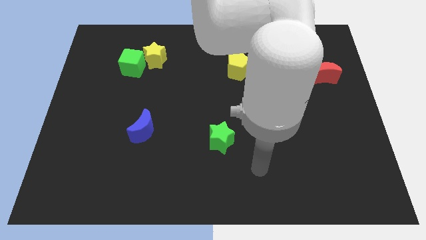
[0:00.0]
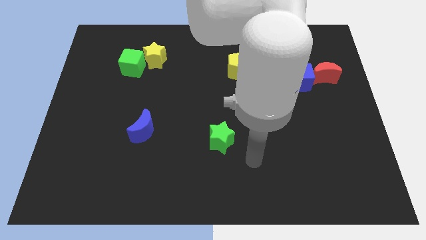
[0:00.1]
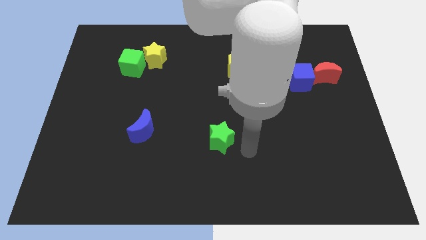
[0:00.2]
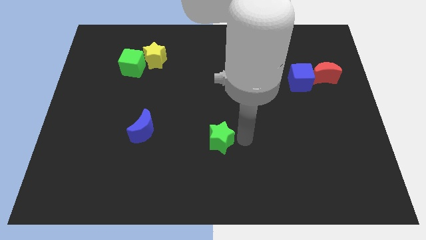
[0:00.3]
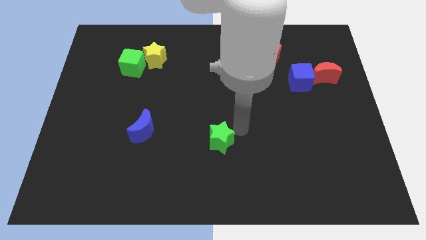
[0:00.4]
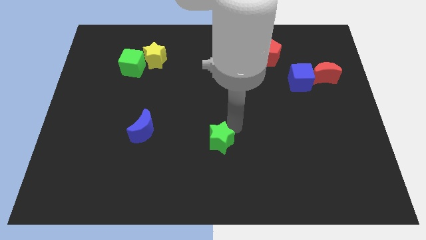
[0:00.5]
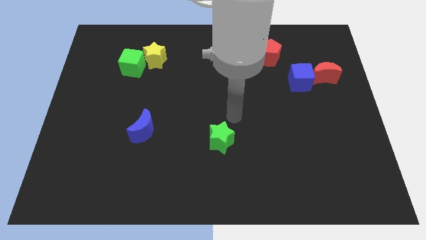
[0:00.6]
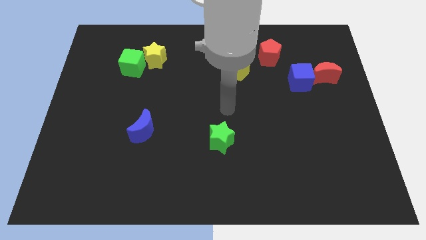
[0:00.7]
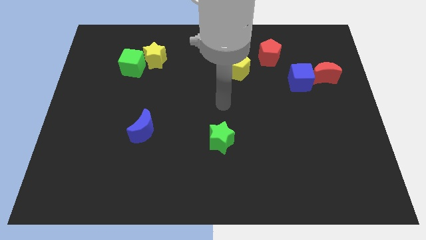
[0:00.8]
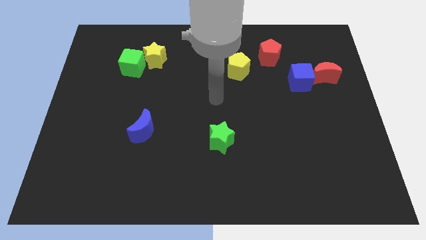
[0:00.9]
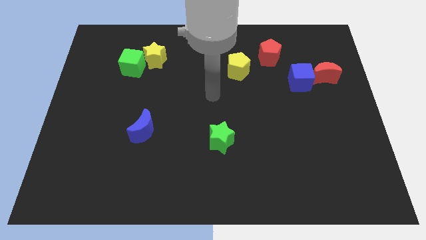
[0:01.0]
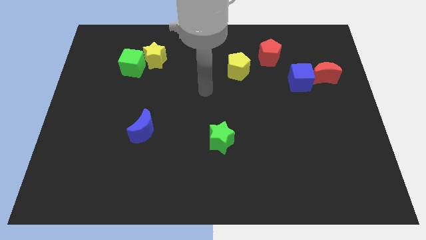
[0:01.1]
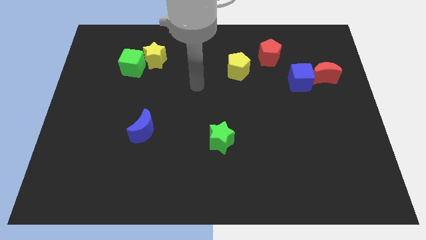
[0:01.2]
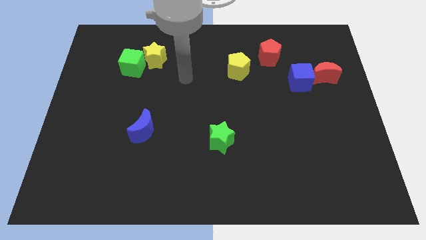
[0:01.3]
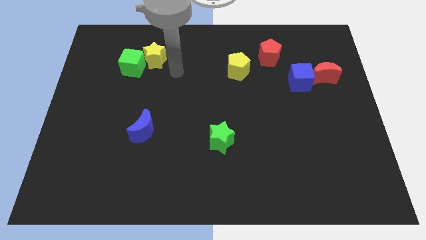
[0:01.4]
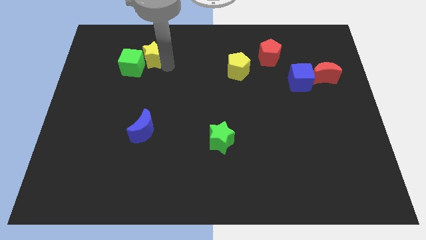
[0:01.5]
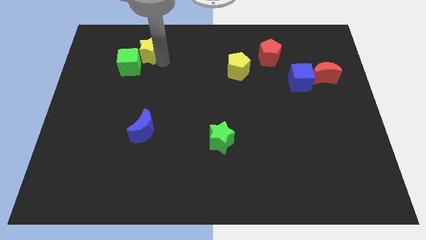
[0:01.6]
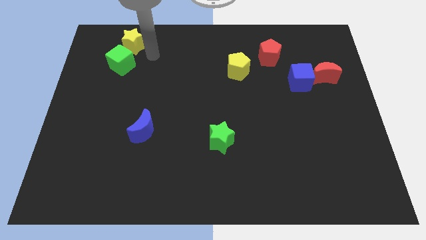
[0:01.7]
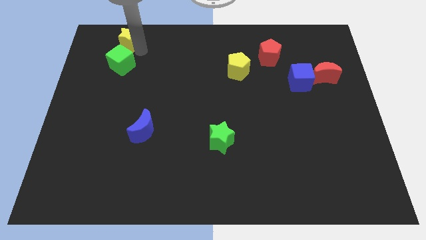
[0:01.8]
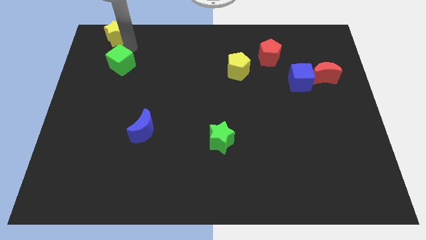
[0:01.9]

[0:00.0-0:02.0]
move the green cube away from the yellow star

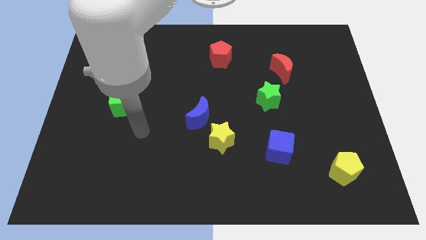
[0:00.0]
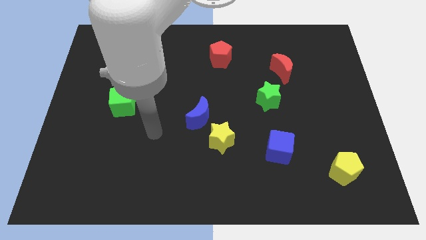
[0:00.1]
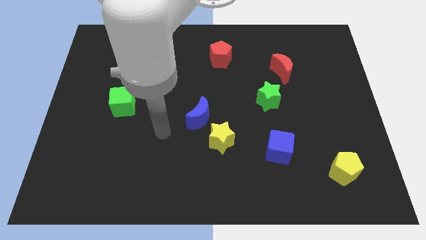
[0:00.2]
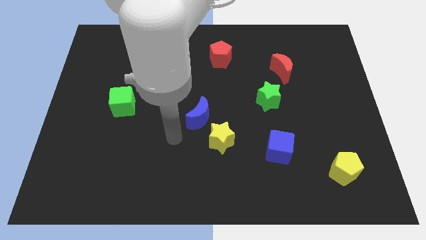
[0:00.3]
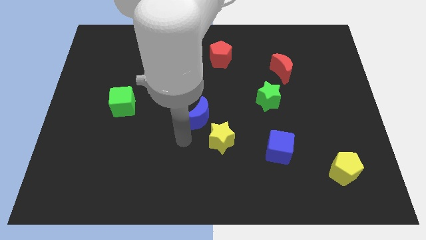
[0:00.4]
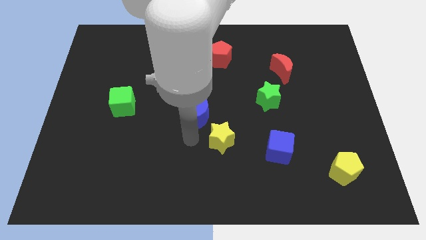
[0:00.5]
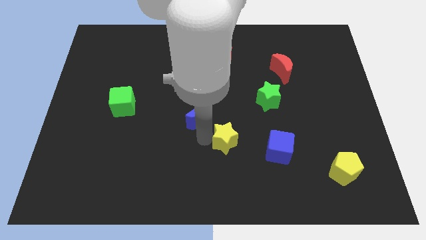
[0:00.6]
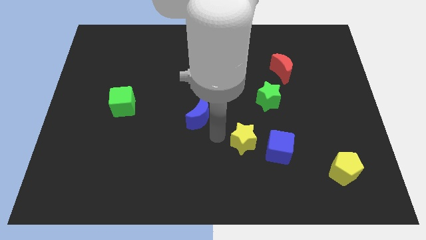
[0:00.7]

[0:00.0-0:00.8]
separate the blue moon from the yellow star

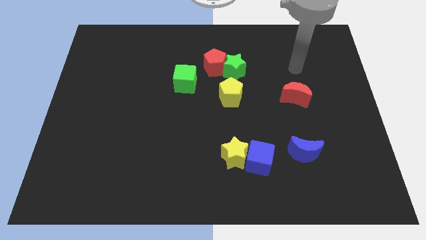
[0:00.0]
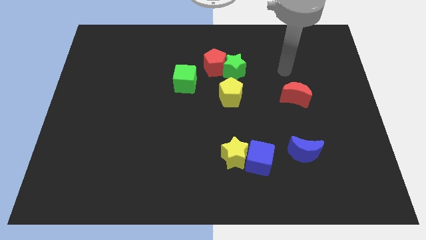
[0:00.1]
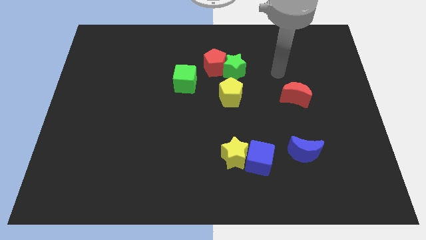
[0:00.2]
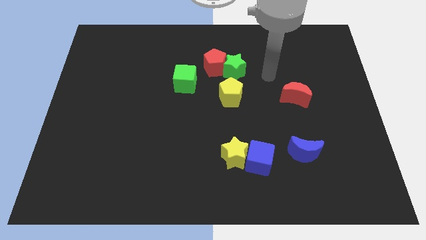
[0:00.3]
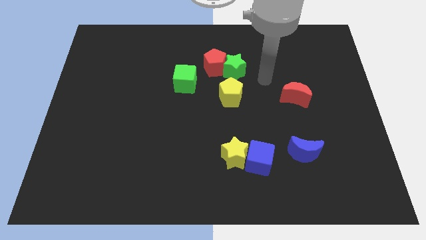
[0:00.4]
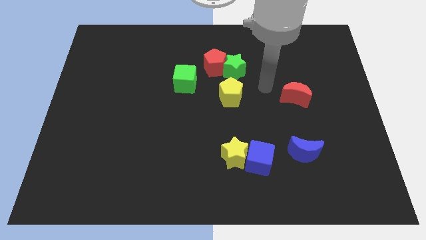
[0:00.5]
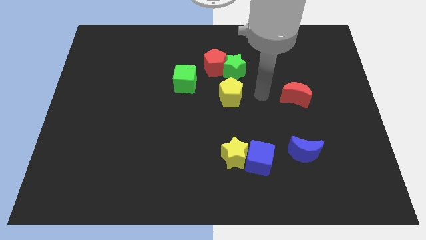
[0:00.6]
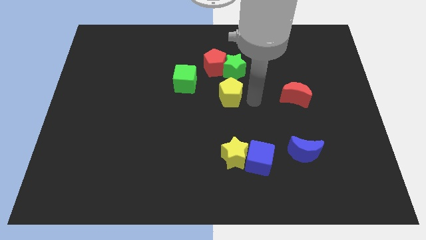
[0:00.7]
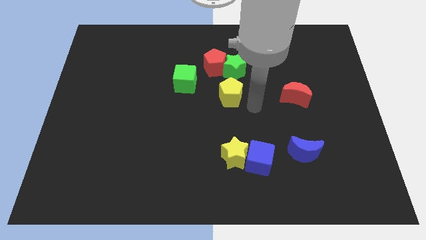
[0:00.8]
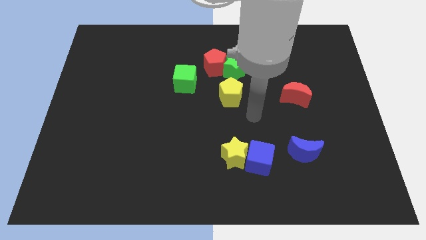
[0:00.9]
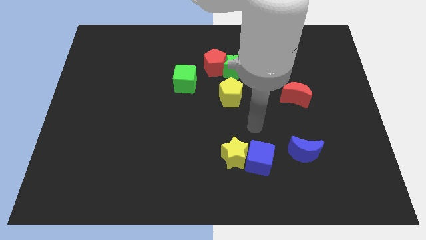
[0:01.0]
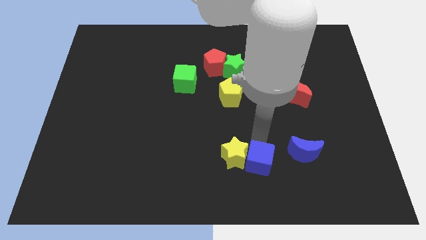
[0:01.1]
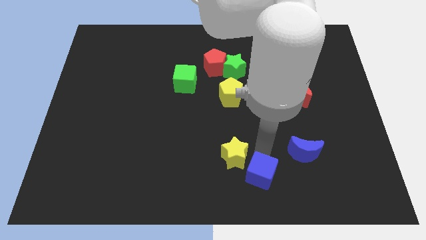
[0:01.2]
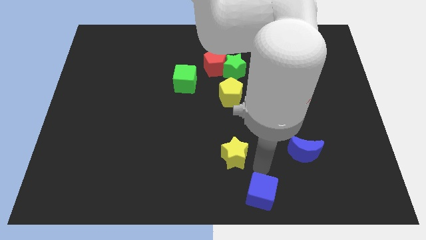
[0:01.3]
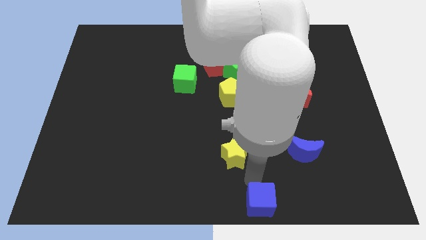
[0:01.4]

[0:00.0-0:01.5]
move the yellow star away from the blue cube

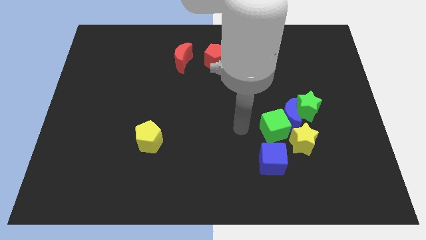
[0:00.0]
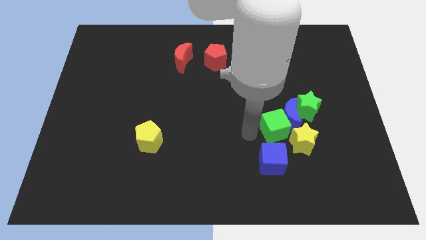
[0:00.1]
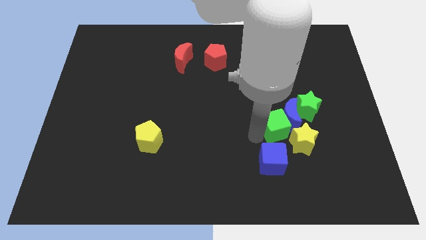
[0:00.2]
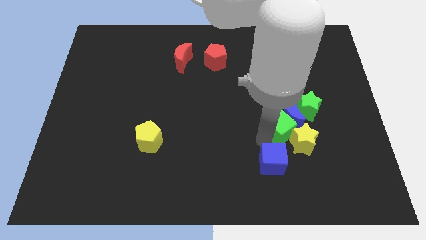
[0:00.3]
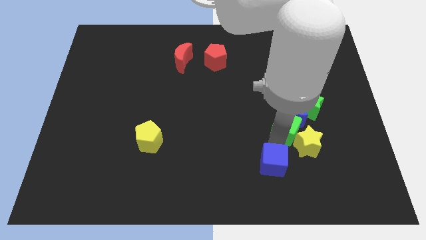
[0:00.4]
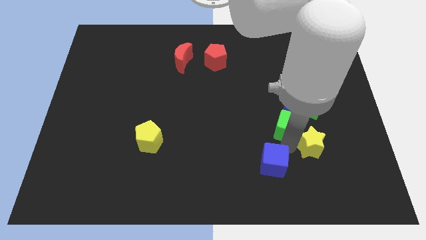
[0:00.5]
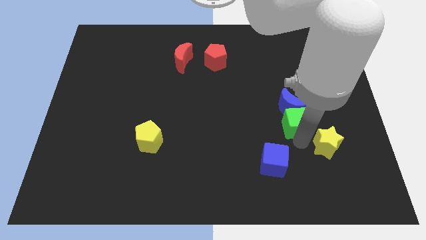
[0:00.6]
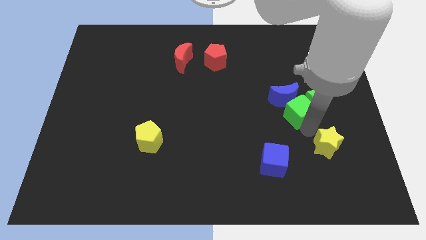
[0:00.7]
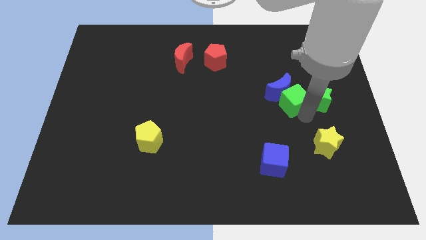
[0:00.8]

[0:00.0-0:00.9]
pull the blue moon apart from the green cube, green star, and yellow star

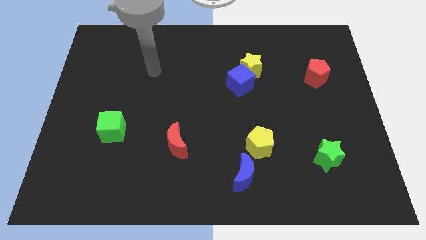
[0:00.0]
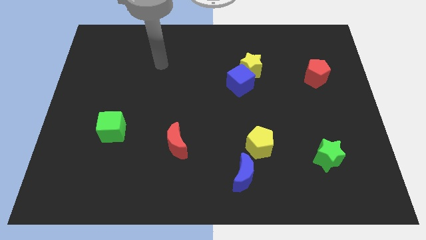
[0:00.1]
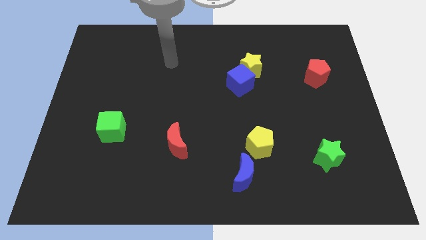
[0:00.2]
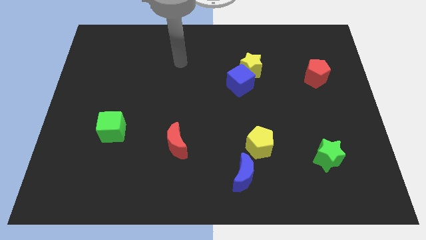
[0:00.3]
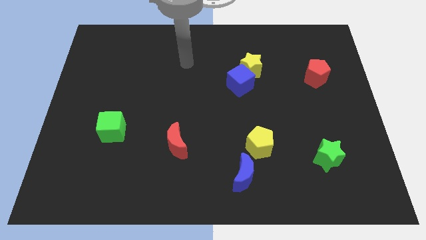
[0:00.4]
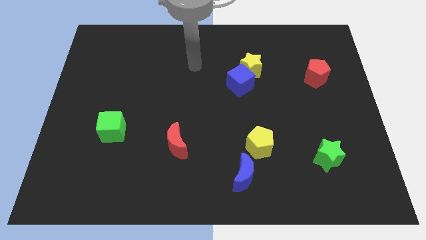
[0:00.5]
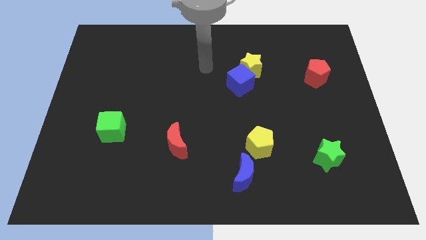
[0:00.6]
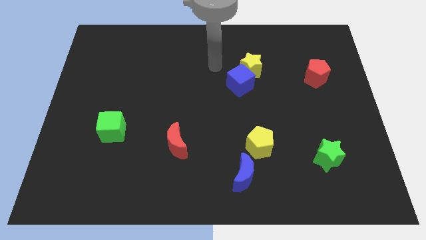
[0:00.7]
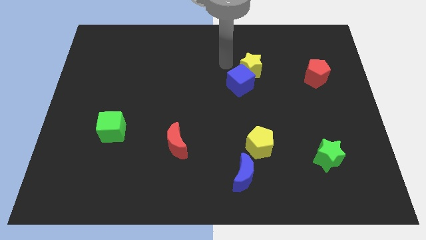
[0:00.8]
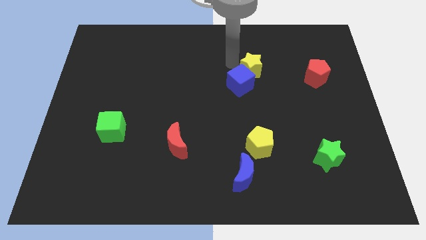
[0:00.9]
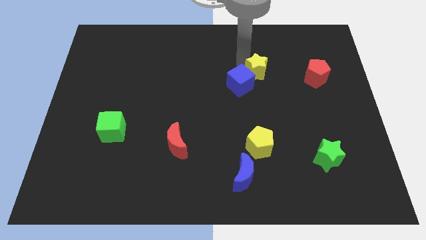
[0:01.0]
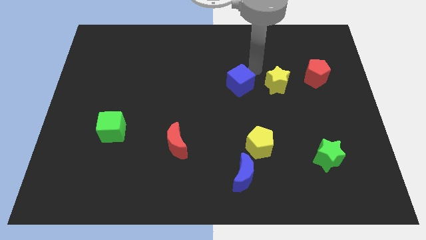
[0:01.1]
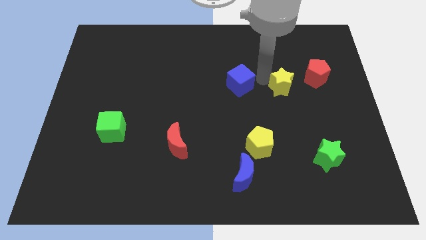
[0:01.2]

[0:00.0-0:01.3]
separate the blue cube from the yellow star

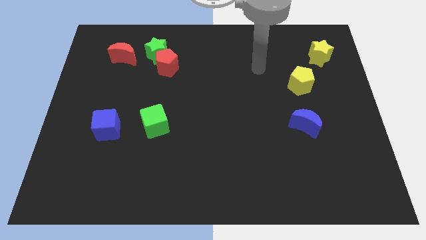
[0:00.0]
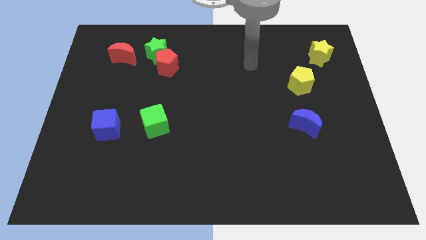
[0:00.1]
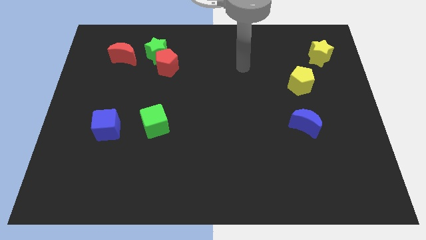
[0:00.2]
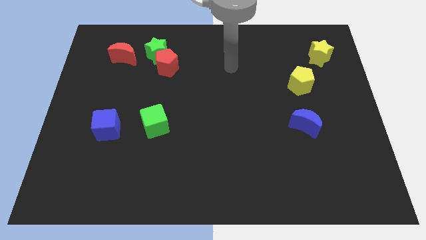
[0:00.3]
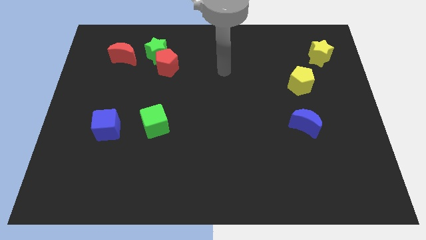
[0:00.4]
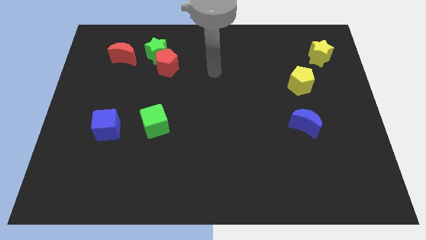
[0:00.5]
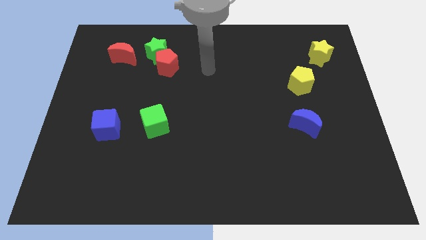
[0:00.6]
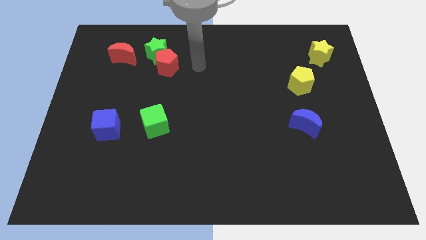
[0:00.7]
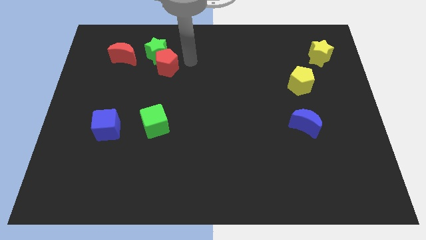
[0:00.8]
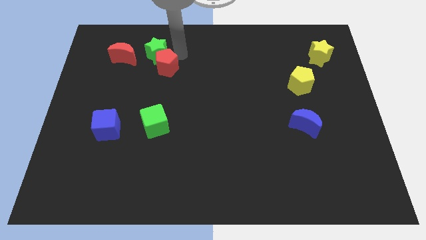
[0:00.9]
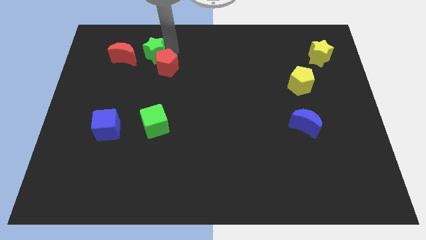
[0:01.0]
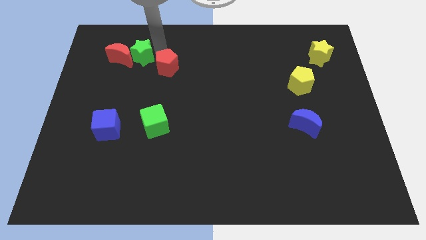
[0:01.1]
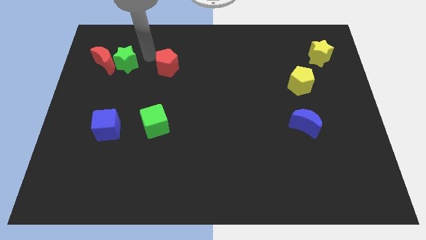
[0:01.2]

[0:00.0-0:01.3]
separate the red pentagon from the green star

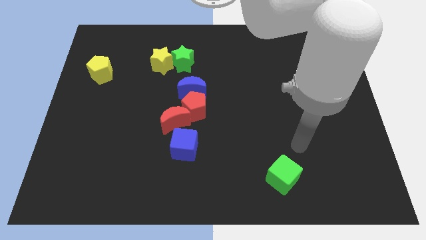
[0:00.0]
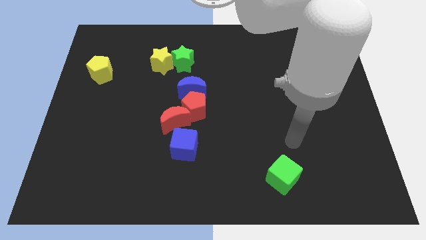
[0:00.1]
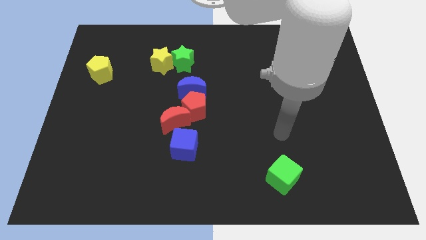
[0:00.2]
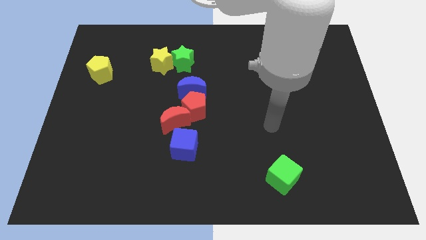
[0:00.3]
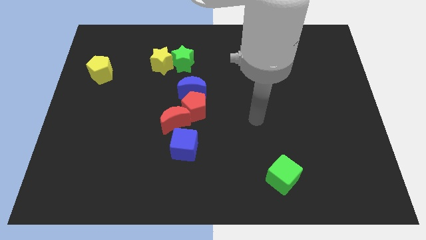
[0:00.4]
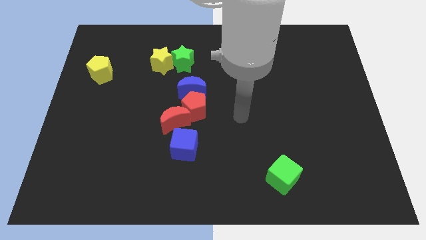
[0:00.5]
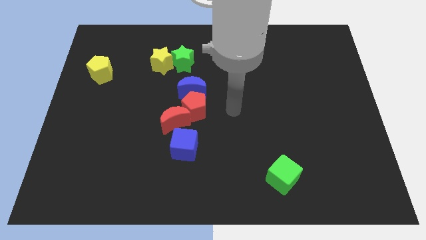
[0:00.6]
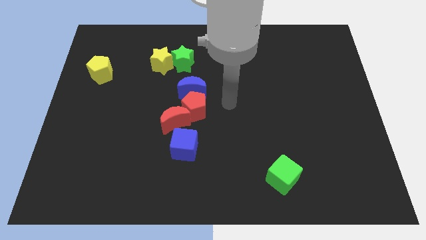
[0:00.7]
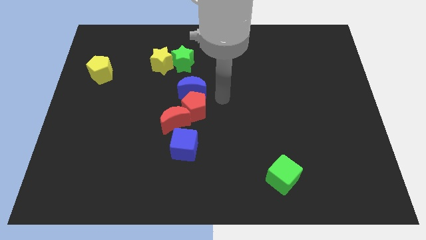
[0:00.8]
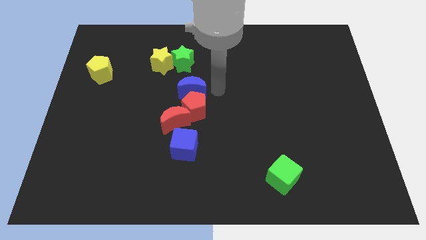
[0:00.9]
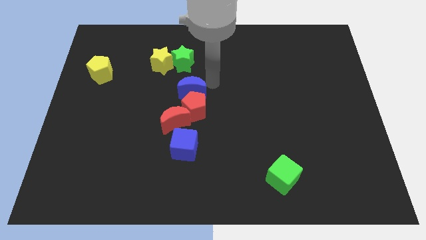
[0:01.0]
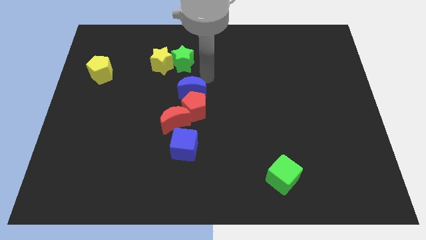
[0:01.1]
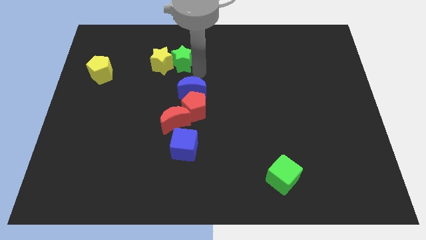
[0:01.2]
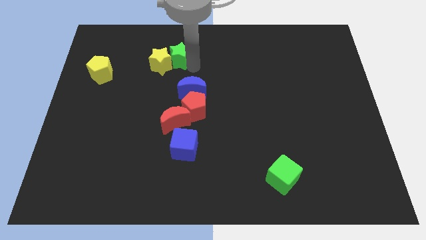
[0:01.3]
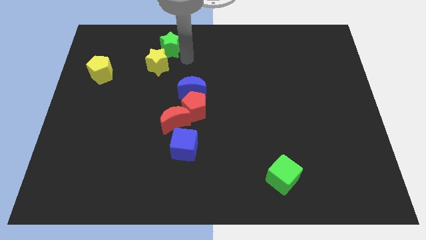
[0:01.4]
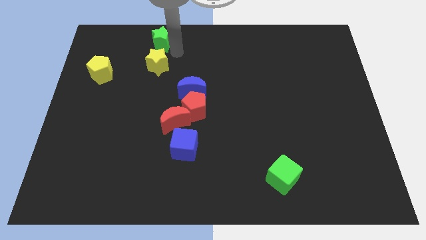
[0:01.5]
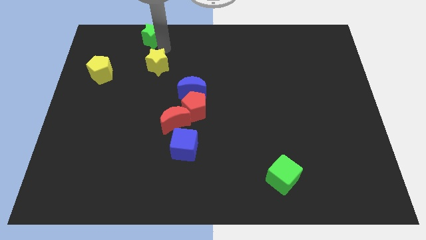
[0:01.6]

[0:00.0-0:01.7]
pull the yellow star apart from the green star

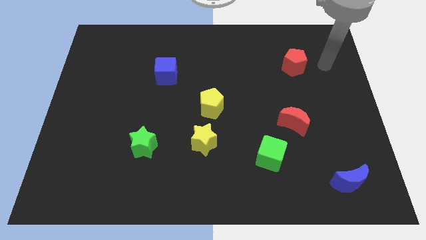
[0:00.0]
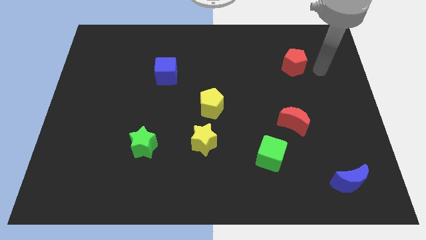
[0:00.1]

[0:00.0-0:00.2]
move the yellow star away from the yellow pentagon
